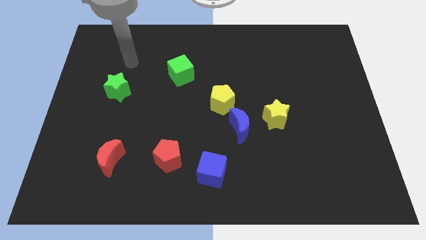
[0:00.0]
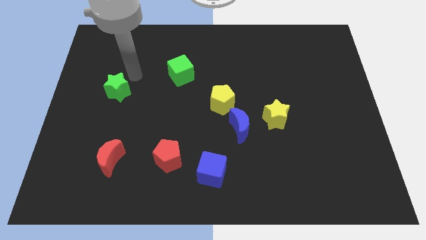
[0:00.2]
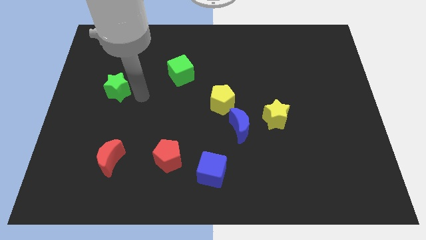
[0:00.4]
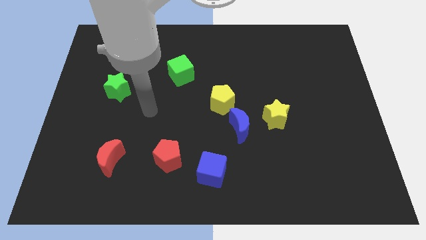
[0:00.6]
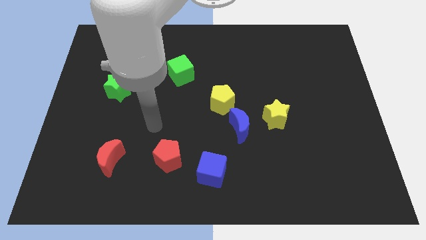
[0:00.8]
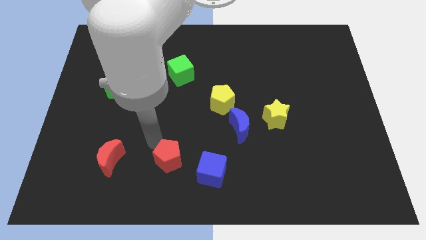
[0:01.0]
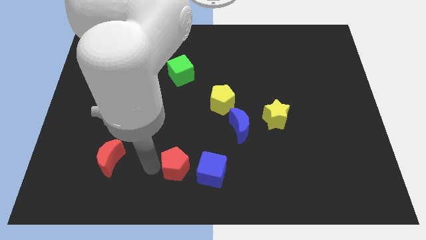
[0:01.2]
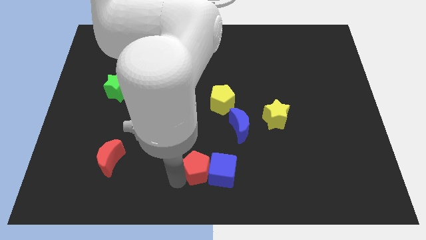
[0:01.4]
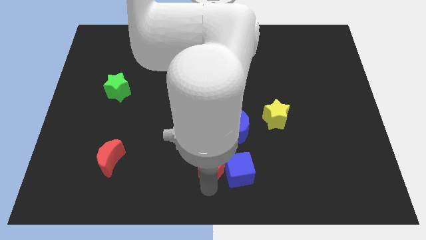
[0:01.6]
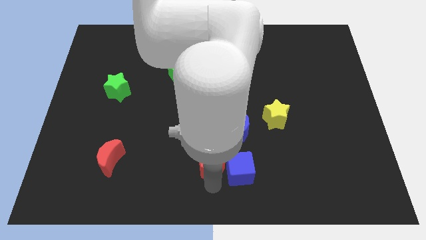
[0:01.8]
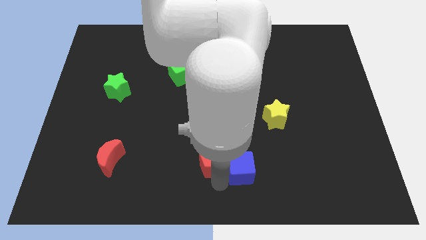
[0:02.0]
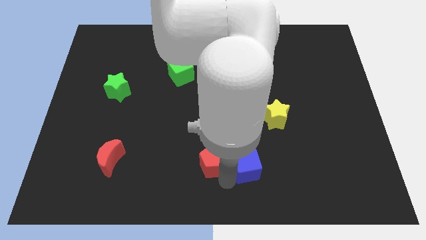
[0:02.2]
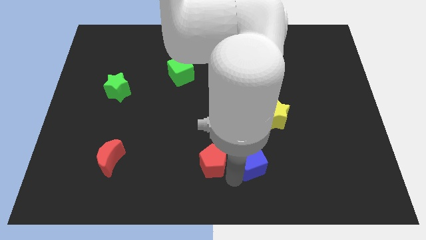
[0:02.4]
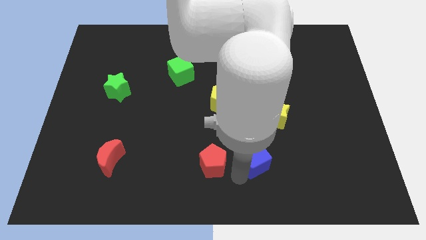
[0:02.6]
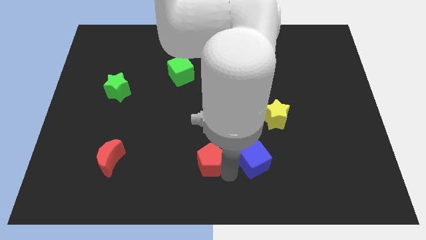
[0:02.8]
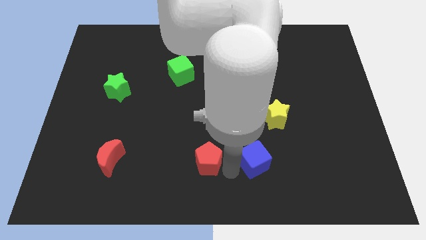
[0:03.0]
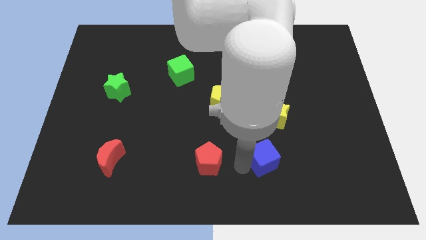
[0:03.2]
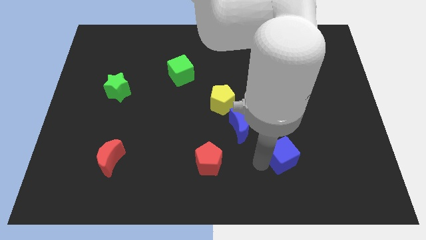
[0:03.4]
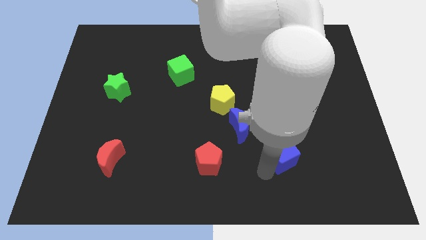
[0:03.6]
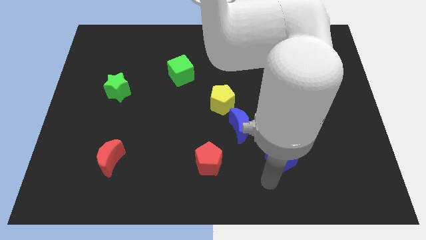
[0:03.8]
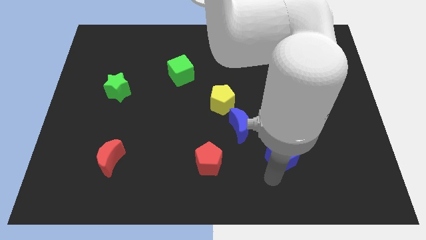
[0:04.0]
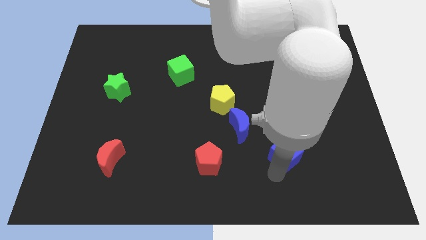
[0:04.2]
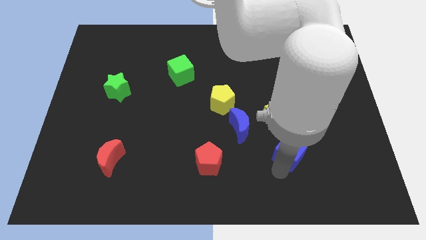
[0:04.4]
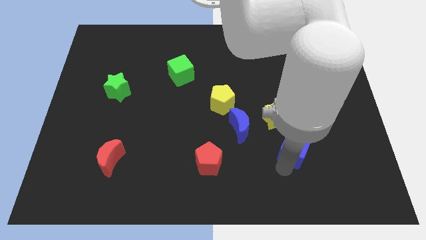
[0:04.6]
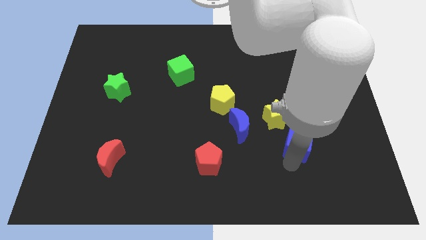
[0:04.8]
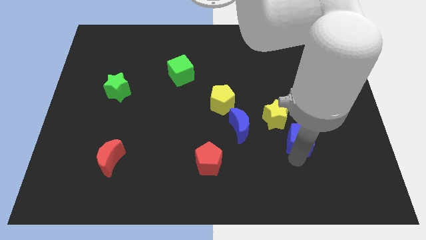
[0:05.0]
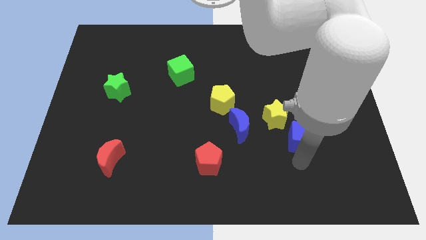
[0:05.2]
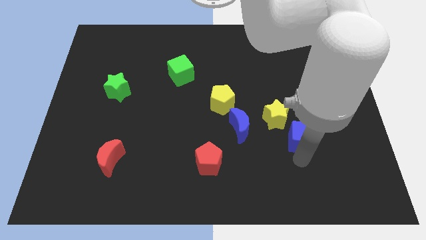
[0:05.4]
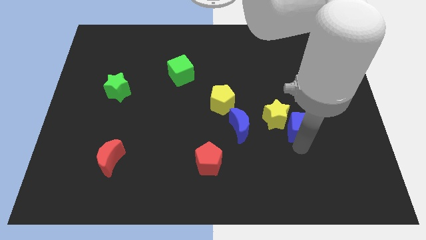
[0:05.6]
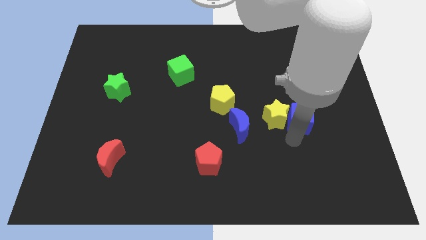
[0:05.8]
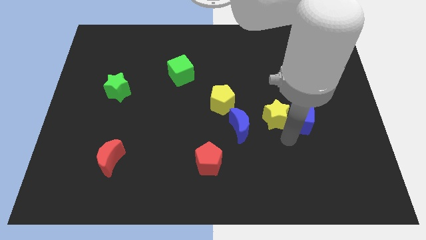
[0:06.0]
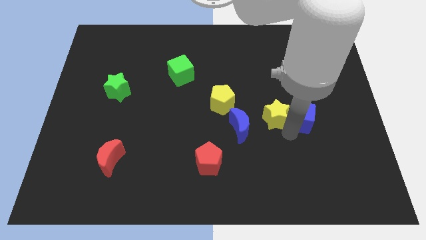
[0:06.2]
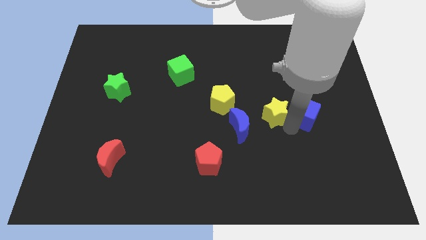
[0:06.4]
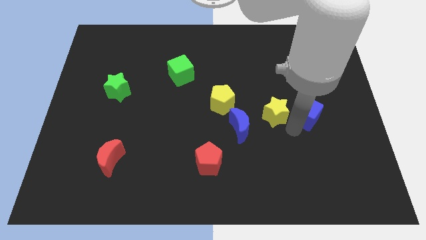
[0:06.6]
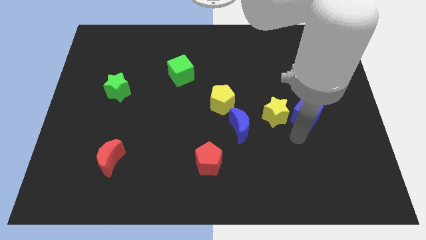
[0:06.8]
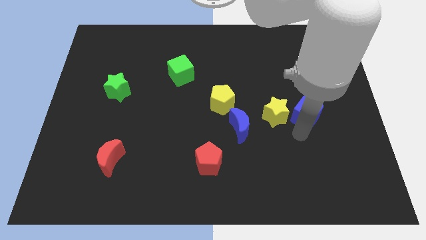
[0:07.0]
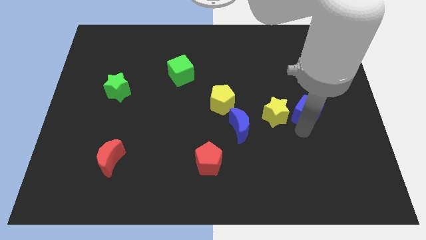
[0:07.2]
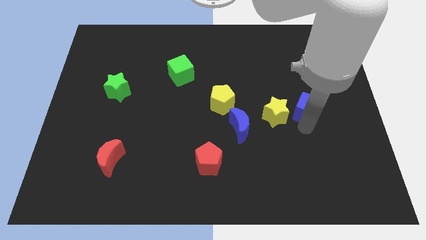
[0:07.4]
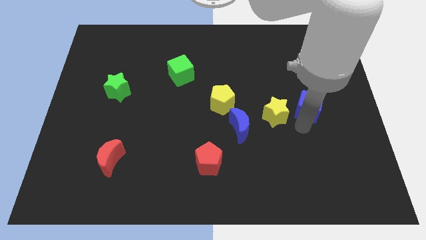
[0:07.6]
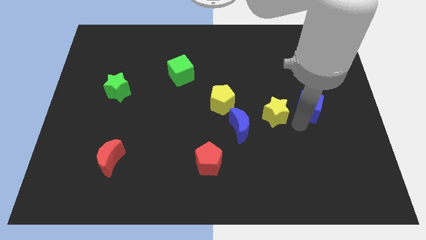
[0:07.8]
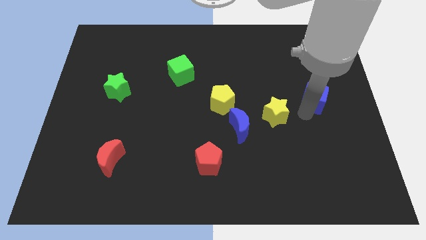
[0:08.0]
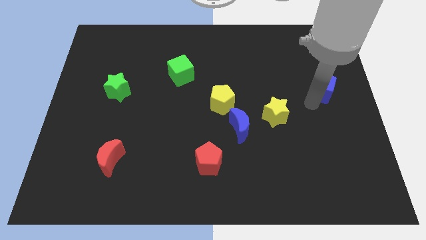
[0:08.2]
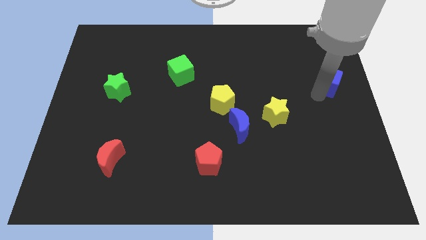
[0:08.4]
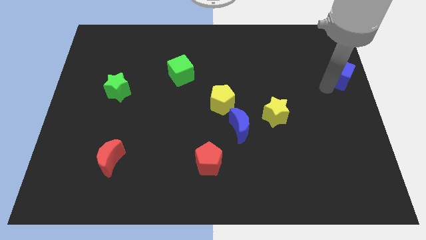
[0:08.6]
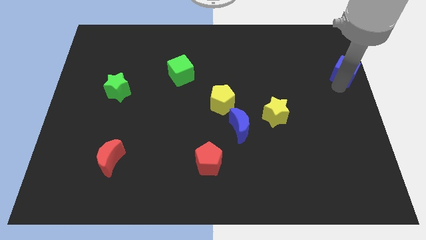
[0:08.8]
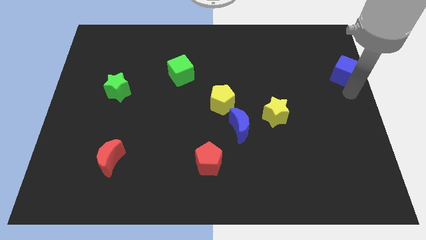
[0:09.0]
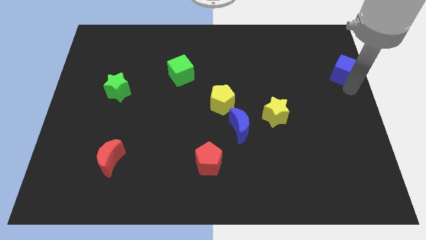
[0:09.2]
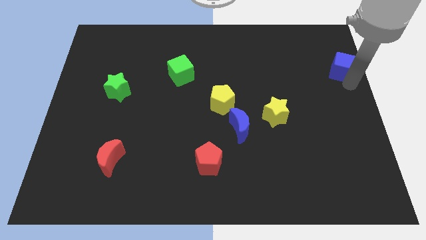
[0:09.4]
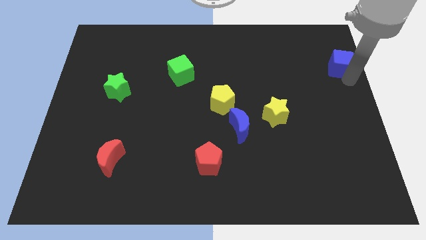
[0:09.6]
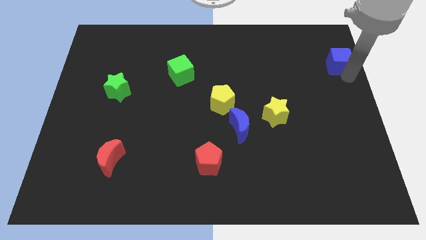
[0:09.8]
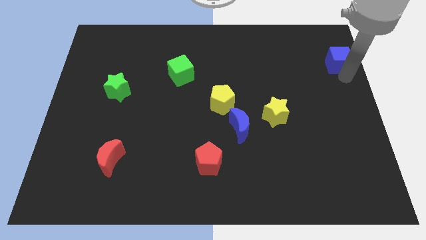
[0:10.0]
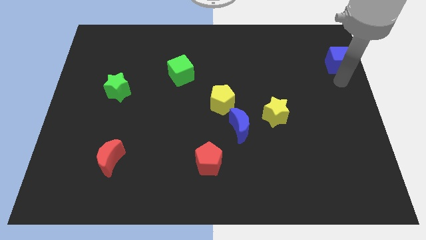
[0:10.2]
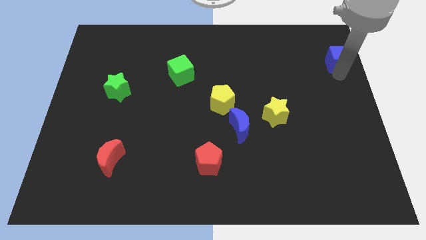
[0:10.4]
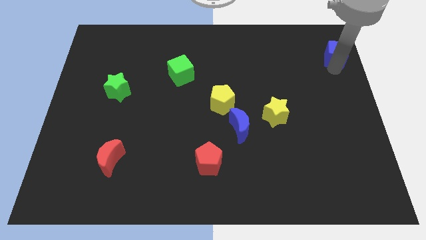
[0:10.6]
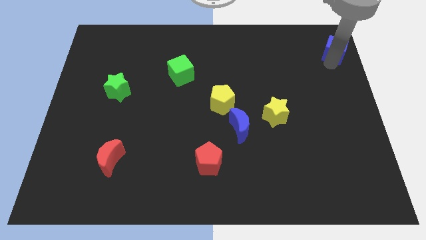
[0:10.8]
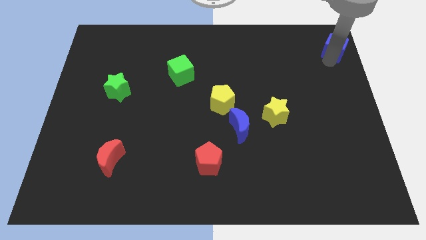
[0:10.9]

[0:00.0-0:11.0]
put the blue cube to the top right

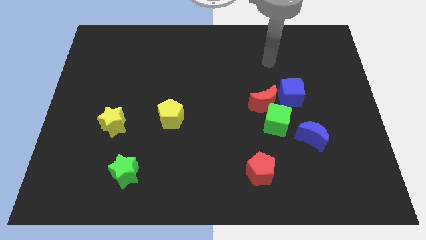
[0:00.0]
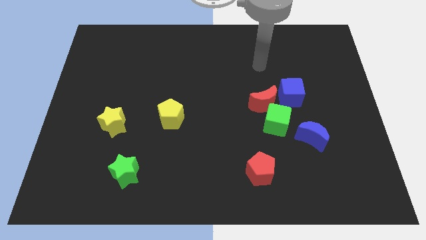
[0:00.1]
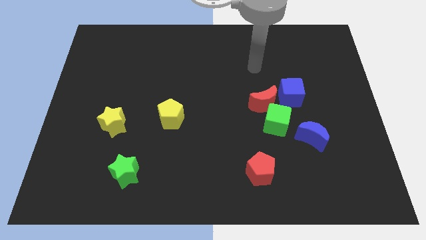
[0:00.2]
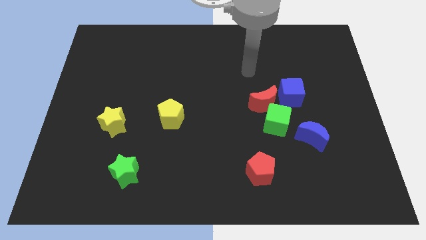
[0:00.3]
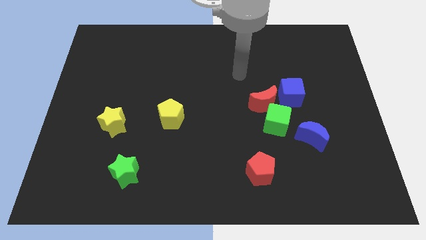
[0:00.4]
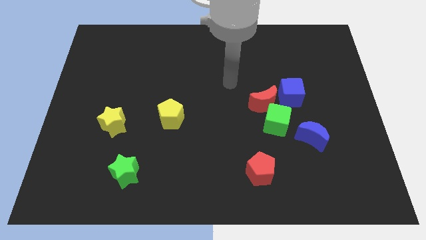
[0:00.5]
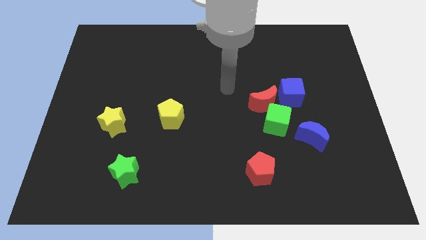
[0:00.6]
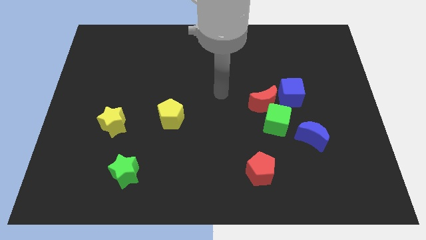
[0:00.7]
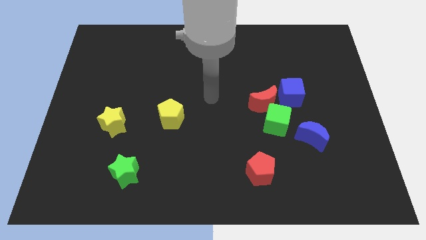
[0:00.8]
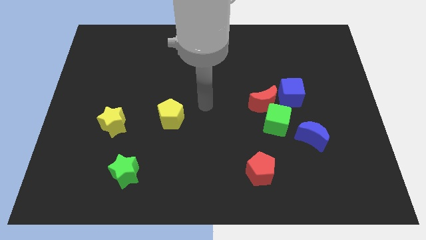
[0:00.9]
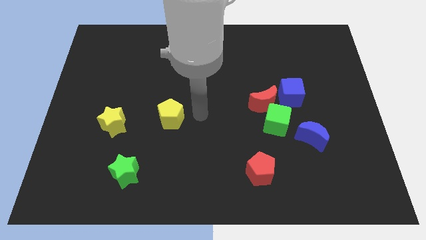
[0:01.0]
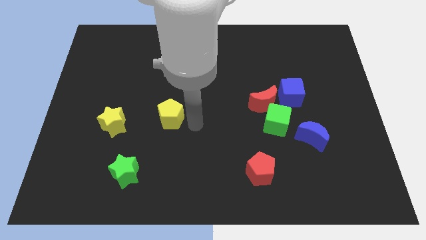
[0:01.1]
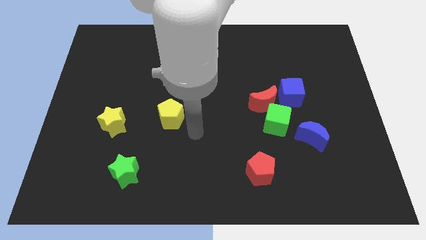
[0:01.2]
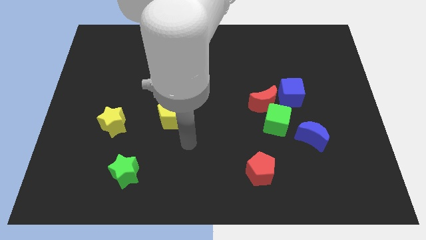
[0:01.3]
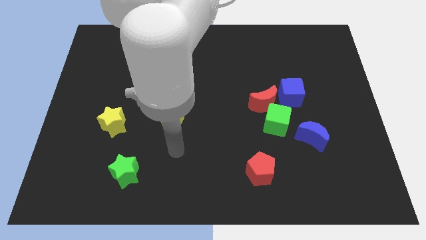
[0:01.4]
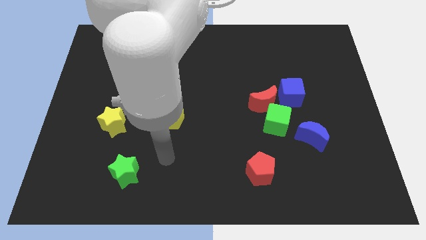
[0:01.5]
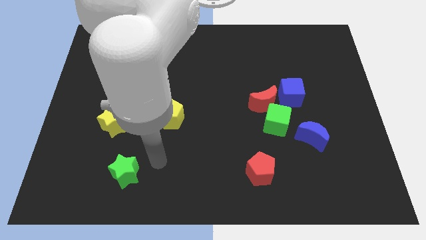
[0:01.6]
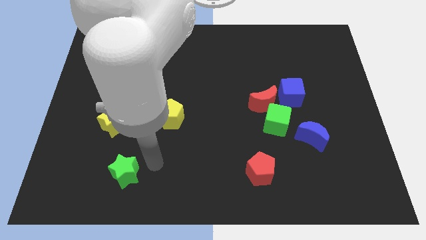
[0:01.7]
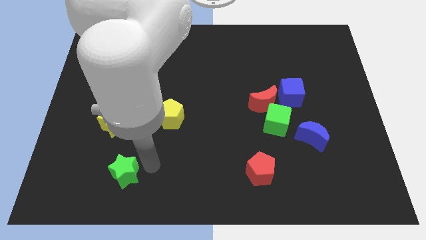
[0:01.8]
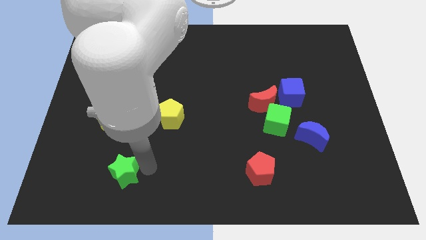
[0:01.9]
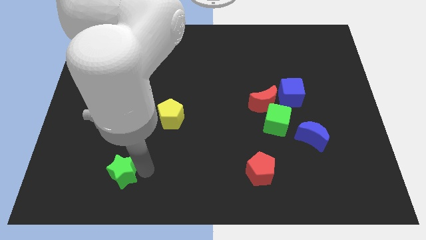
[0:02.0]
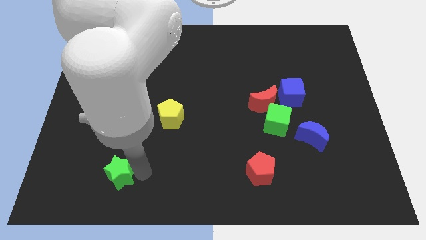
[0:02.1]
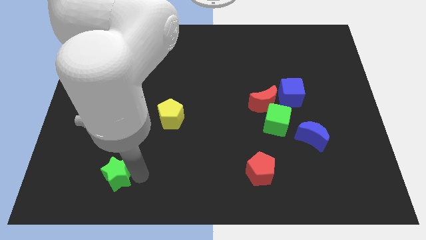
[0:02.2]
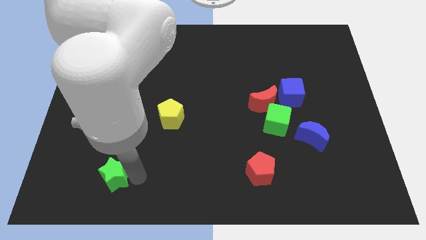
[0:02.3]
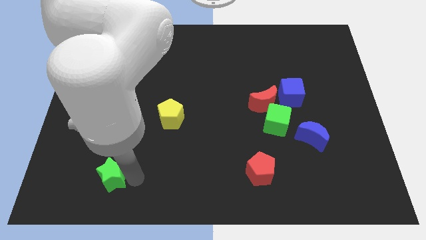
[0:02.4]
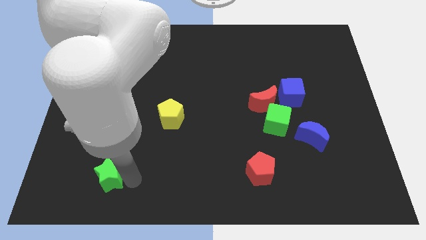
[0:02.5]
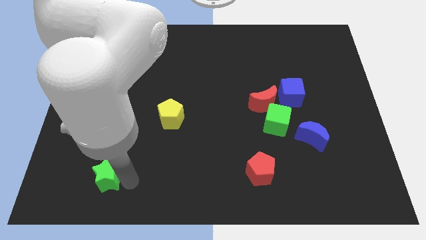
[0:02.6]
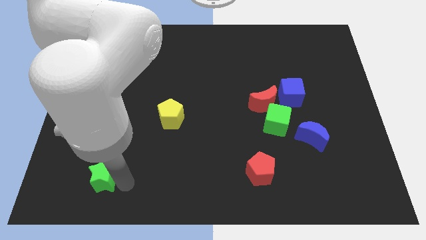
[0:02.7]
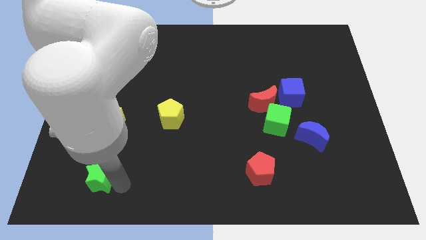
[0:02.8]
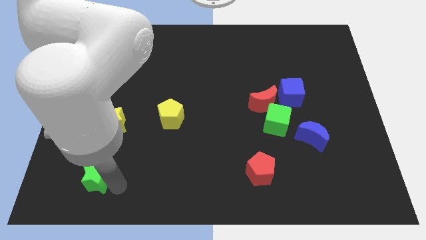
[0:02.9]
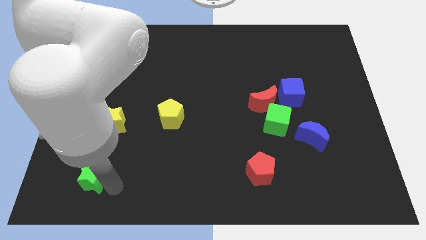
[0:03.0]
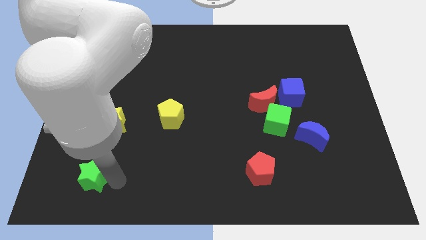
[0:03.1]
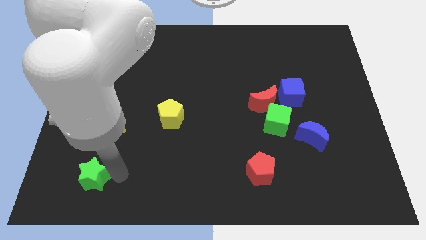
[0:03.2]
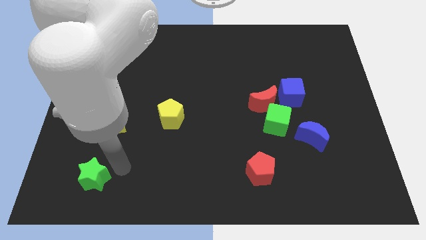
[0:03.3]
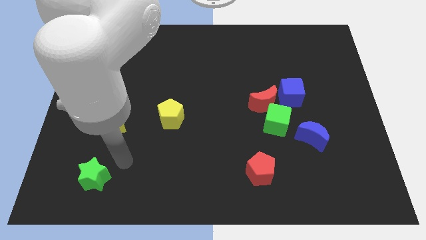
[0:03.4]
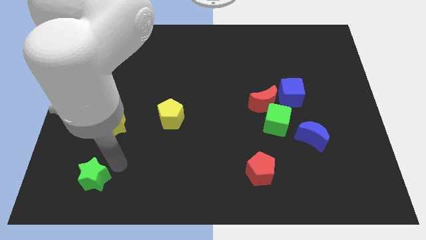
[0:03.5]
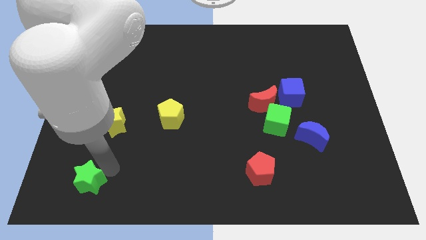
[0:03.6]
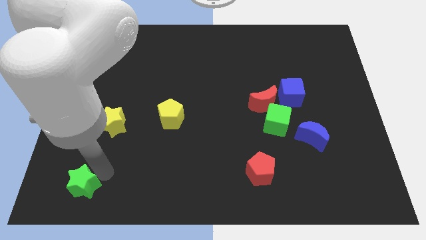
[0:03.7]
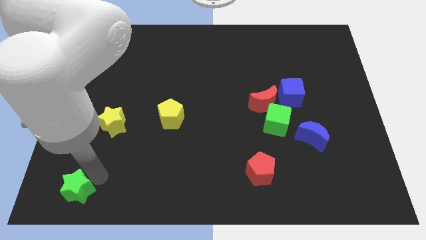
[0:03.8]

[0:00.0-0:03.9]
slide the green star to the bottom left of the board
